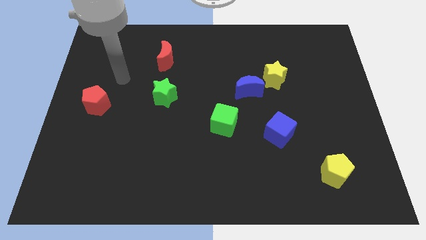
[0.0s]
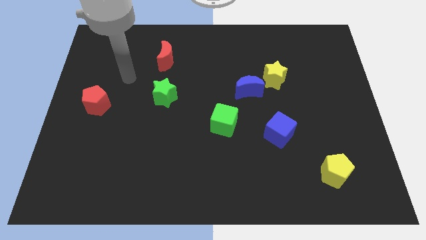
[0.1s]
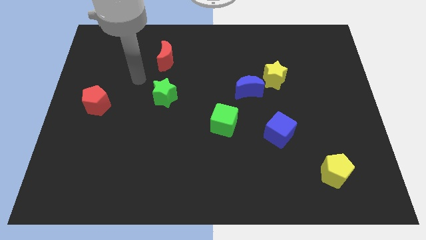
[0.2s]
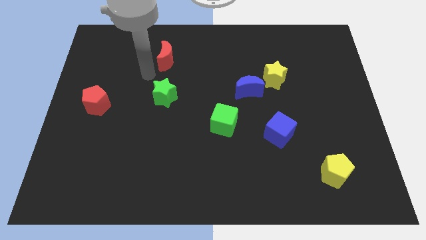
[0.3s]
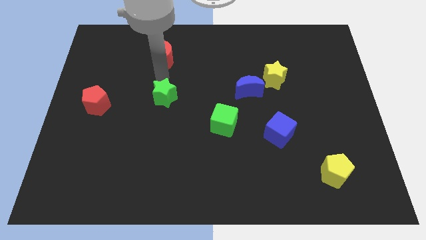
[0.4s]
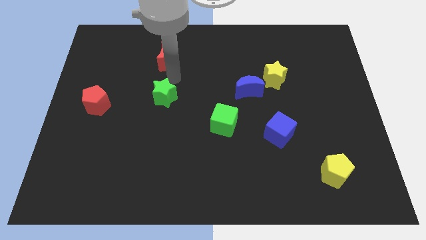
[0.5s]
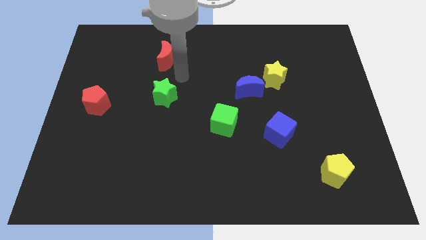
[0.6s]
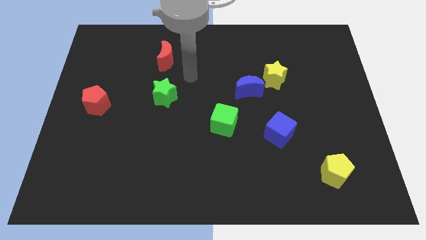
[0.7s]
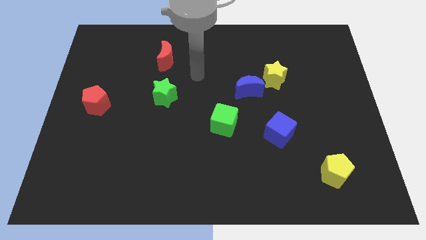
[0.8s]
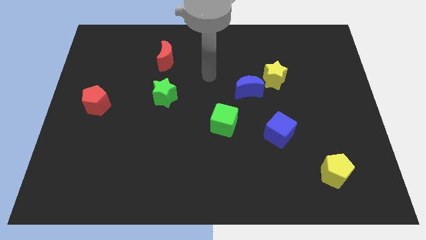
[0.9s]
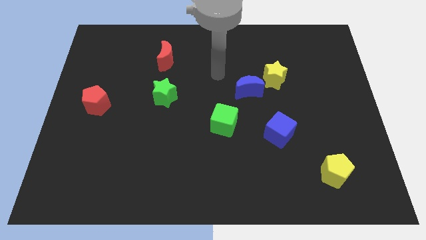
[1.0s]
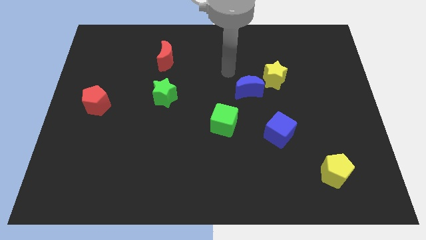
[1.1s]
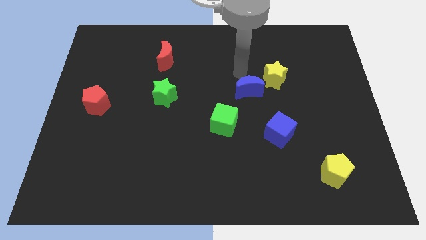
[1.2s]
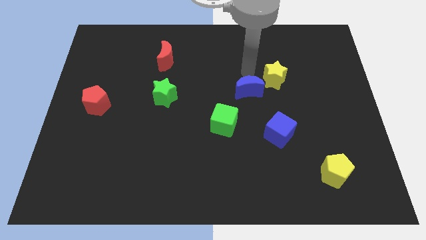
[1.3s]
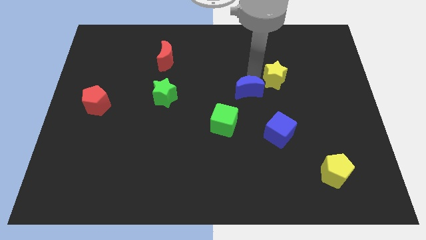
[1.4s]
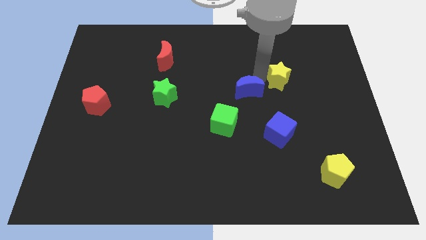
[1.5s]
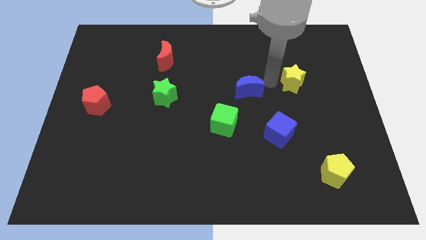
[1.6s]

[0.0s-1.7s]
move the blue moon away from the yellow star

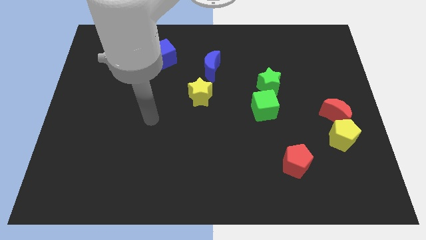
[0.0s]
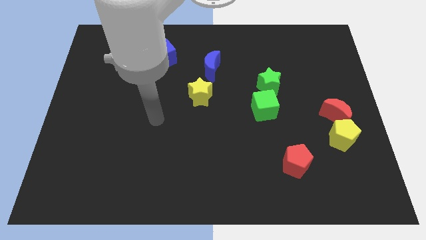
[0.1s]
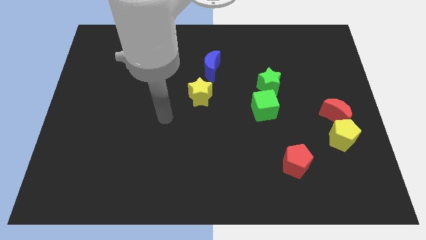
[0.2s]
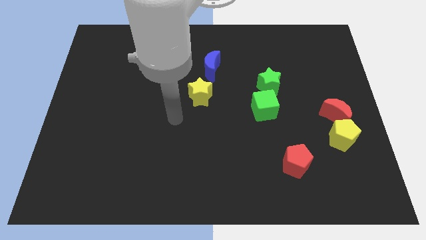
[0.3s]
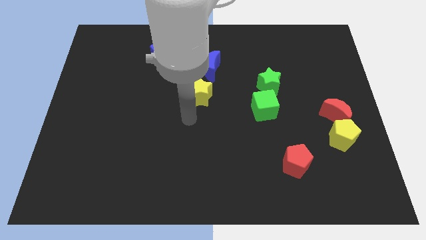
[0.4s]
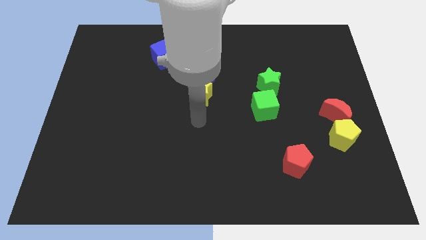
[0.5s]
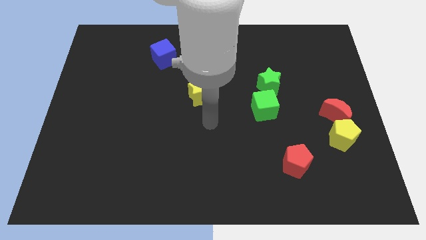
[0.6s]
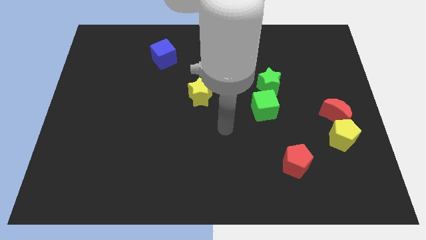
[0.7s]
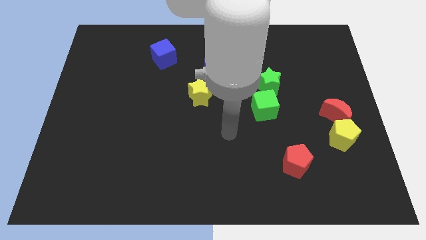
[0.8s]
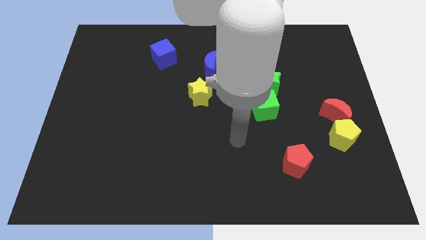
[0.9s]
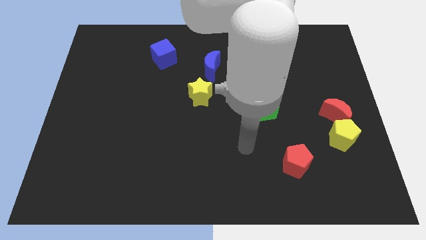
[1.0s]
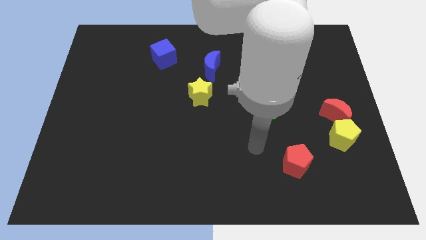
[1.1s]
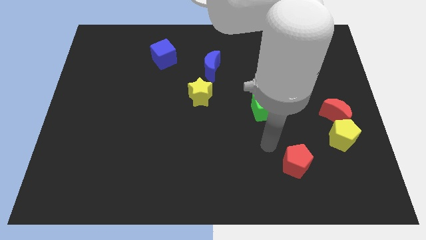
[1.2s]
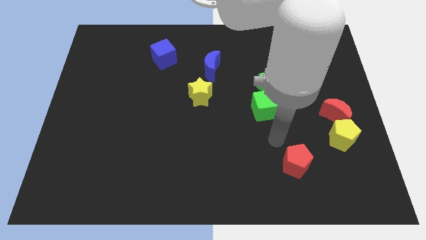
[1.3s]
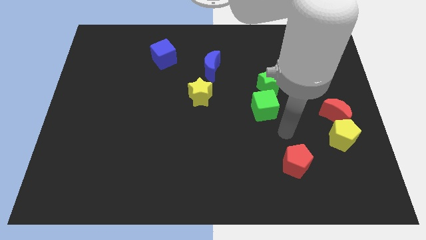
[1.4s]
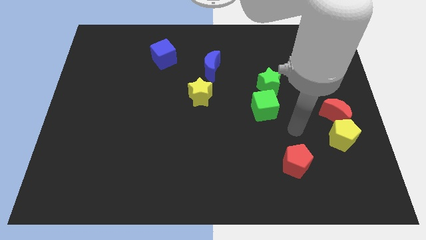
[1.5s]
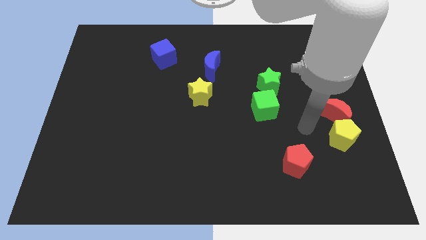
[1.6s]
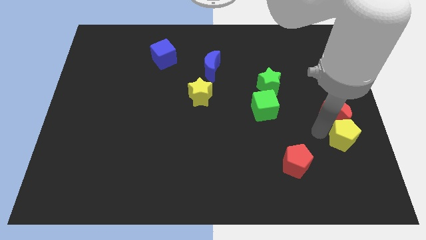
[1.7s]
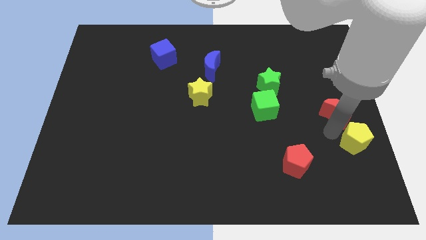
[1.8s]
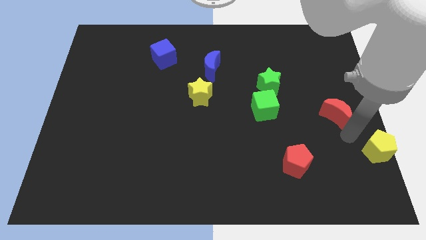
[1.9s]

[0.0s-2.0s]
move the red moon away from the yellow pentagon

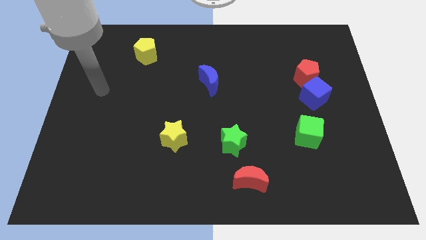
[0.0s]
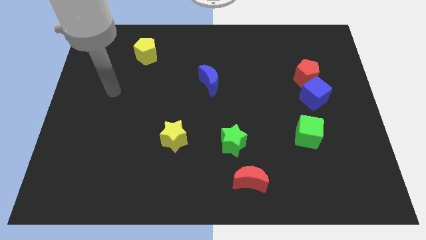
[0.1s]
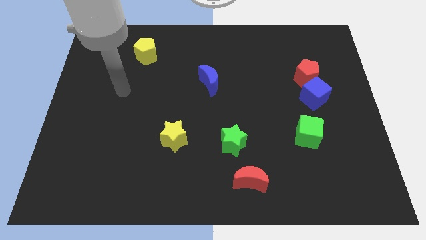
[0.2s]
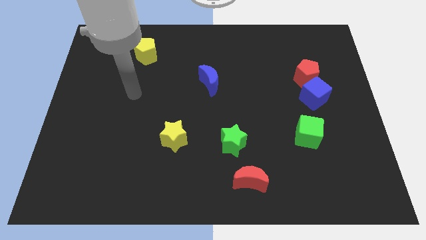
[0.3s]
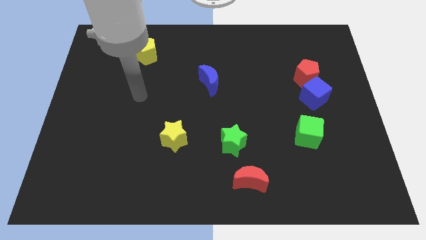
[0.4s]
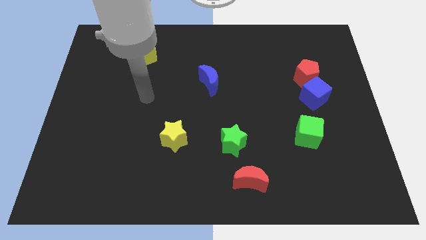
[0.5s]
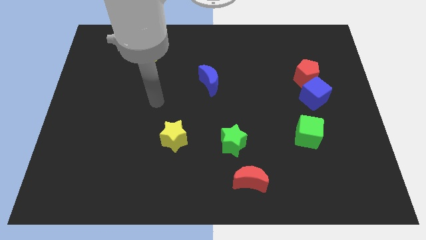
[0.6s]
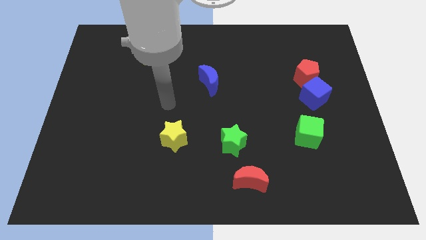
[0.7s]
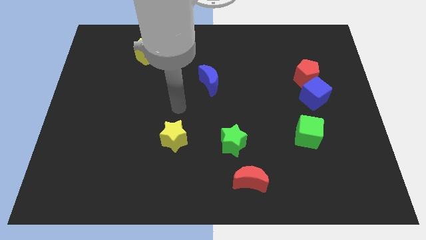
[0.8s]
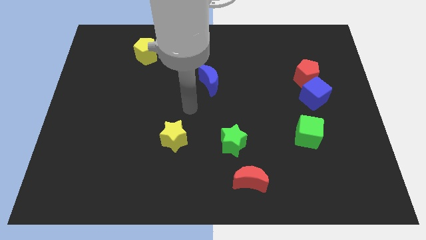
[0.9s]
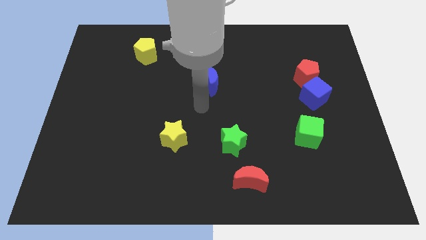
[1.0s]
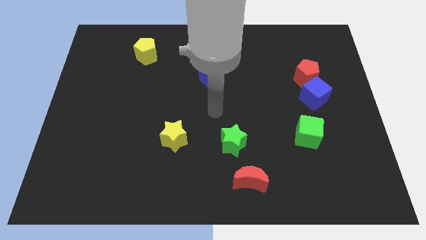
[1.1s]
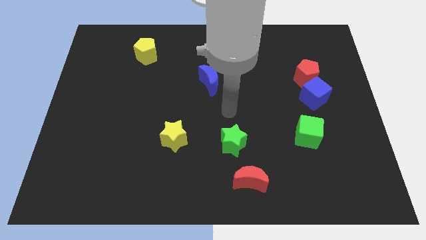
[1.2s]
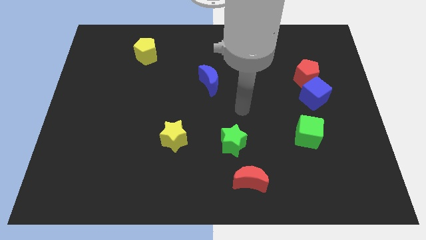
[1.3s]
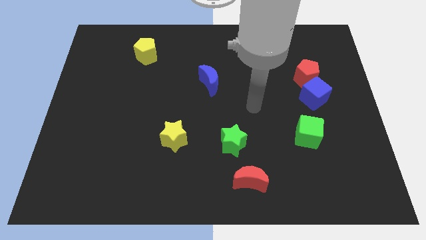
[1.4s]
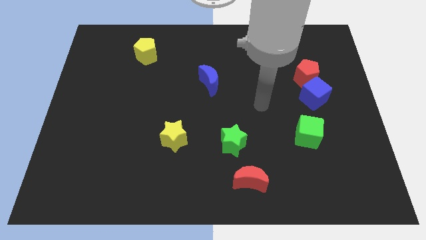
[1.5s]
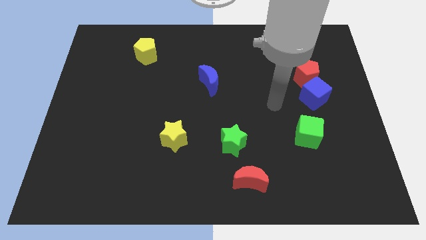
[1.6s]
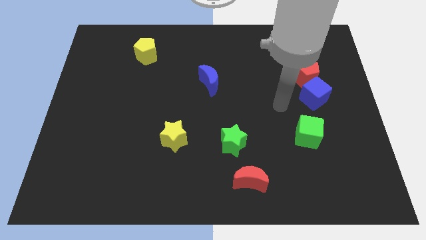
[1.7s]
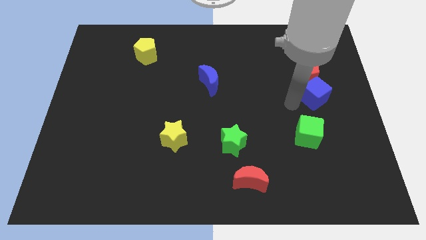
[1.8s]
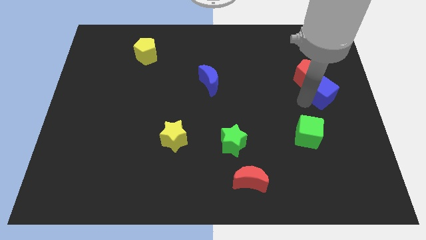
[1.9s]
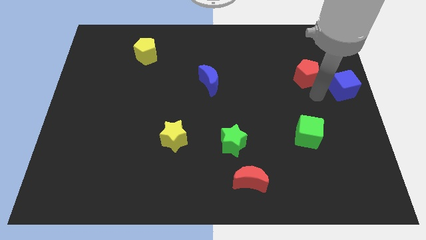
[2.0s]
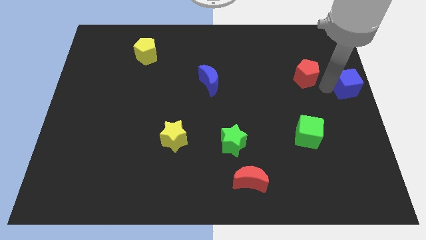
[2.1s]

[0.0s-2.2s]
separate the red pentagon from the blue cube

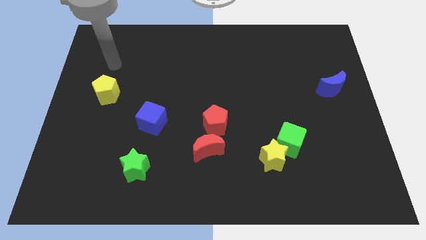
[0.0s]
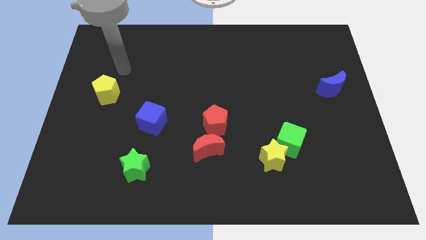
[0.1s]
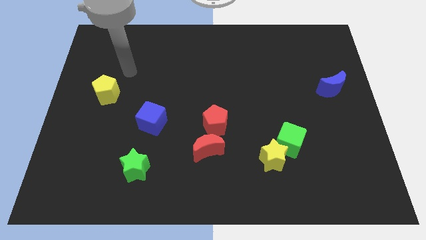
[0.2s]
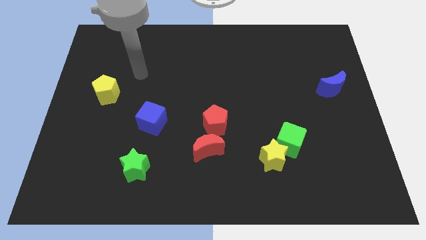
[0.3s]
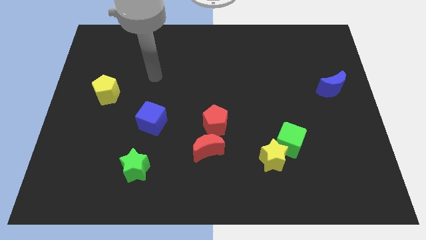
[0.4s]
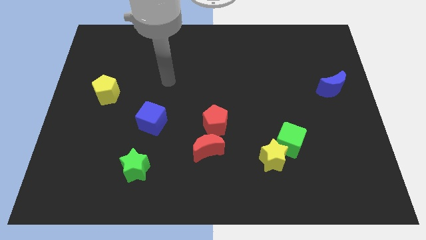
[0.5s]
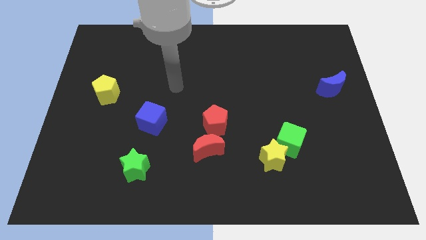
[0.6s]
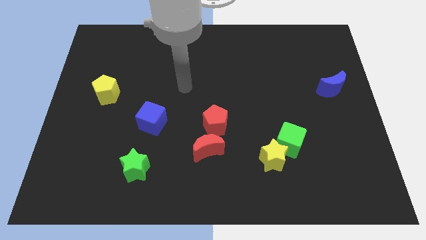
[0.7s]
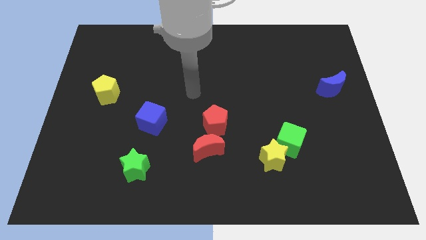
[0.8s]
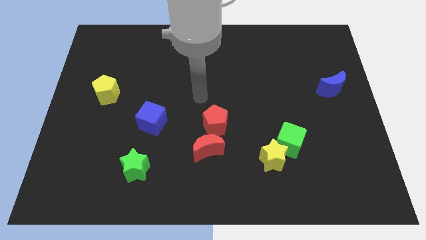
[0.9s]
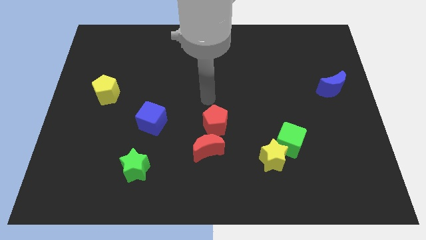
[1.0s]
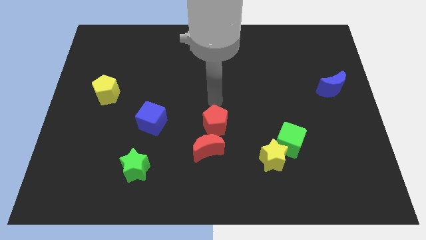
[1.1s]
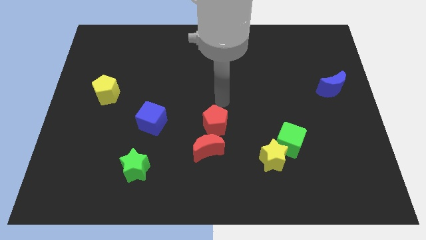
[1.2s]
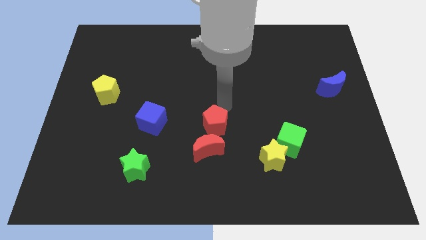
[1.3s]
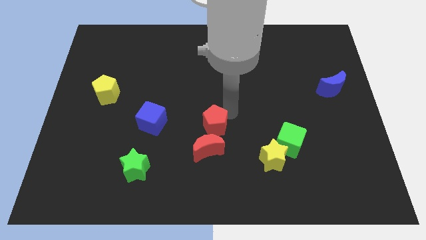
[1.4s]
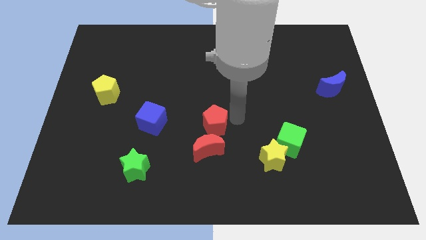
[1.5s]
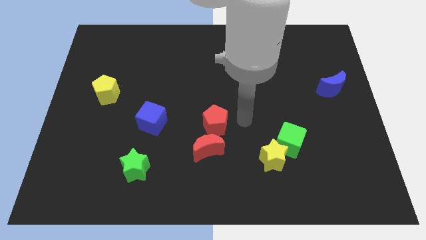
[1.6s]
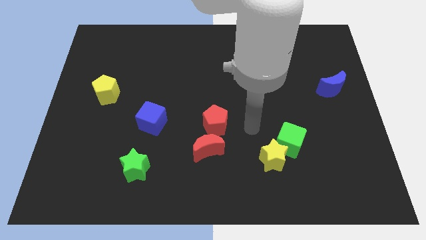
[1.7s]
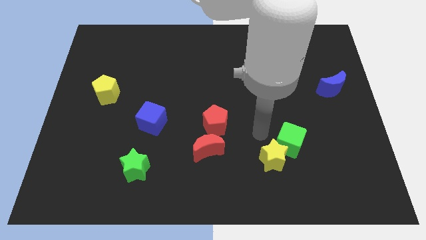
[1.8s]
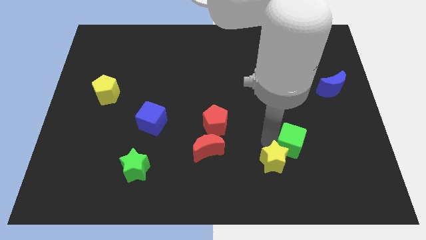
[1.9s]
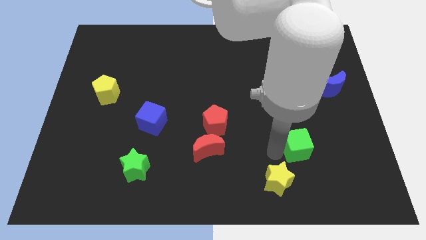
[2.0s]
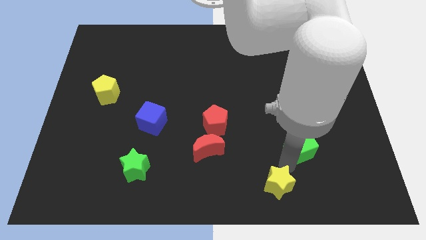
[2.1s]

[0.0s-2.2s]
move the green cube away from the yellow star

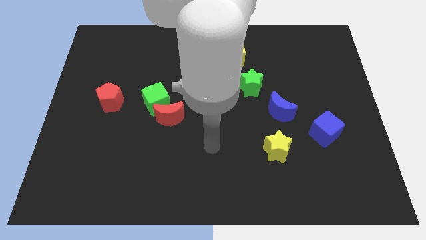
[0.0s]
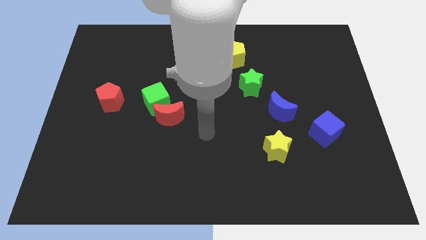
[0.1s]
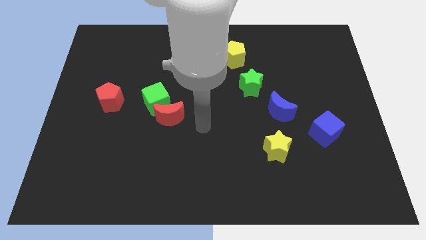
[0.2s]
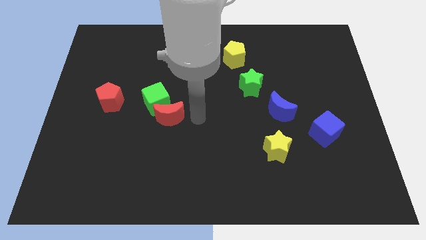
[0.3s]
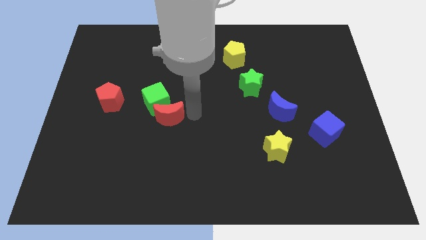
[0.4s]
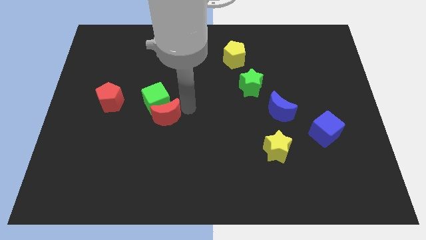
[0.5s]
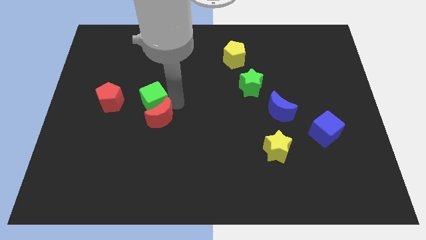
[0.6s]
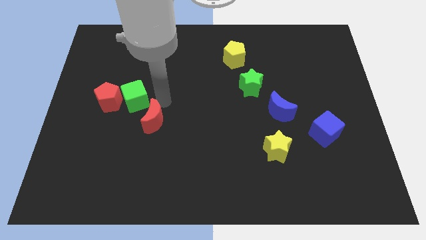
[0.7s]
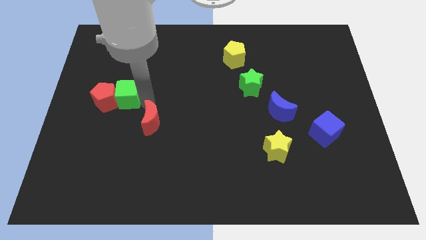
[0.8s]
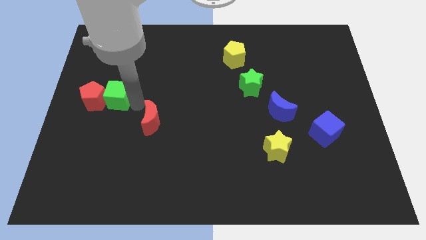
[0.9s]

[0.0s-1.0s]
separate the red moon from the green cube

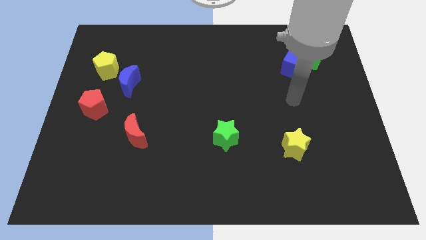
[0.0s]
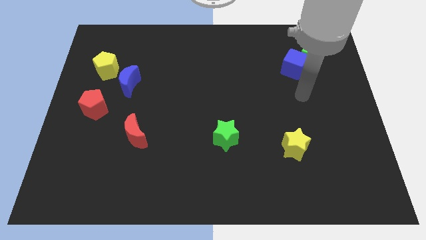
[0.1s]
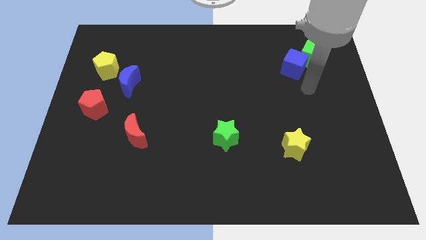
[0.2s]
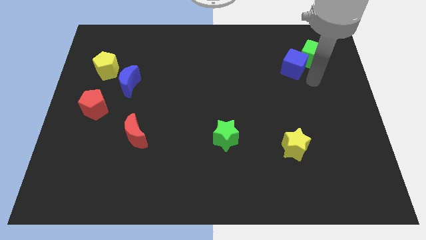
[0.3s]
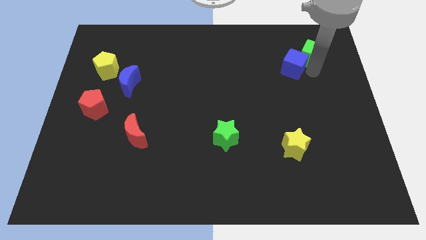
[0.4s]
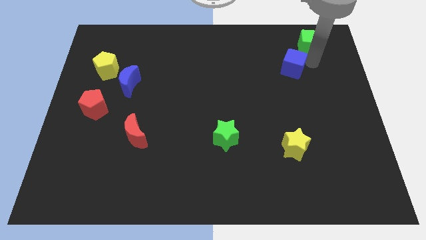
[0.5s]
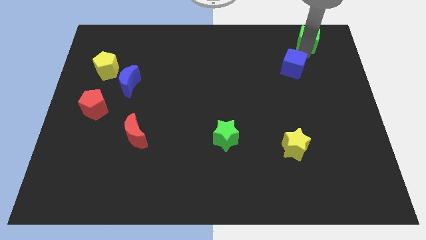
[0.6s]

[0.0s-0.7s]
pull the blue cube apart from the green cube
